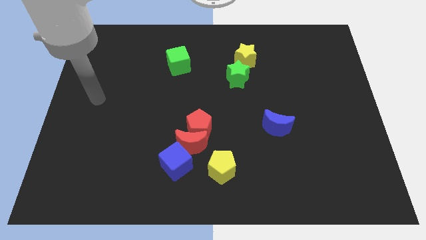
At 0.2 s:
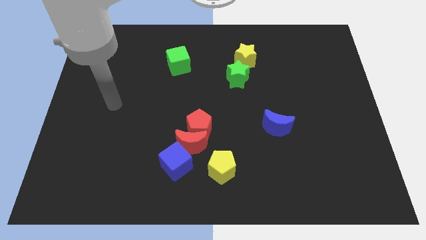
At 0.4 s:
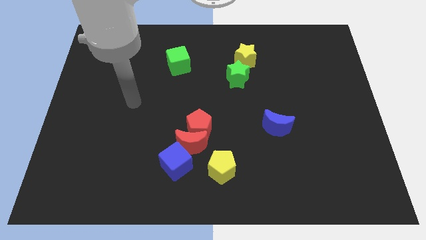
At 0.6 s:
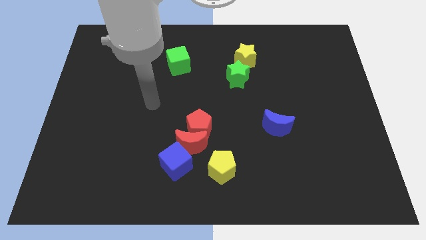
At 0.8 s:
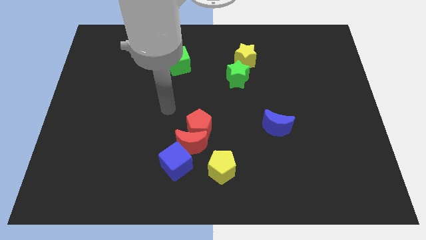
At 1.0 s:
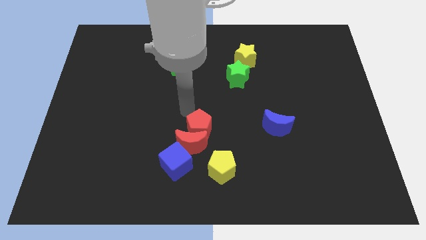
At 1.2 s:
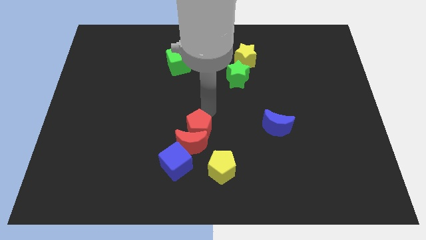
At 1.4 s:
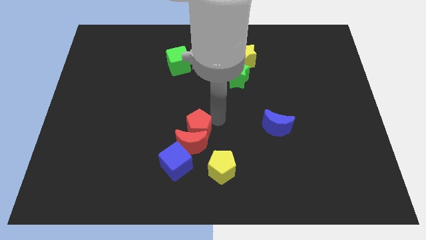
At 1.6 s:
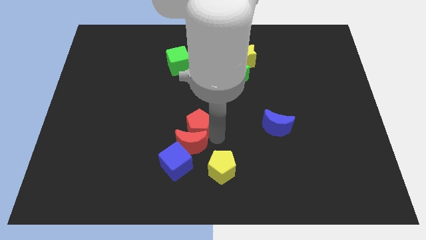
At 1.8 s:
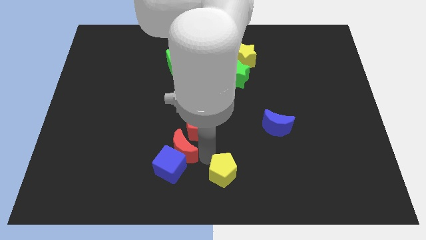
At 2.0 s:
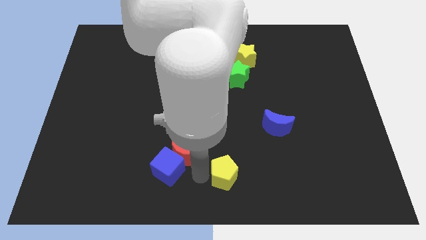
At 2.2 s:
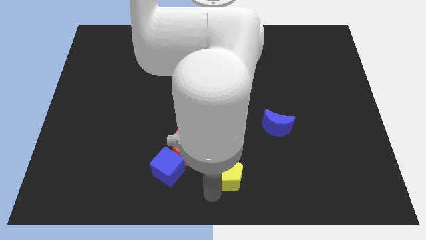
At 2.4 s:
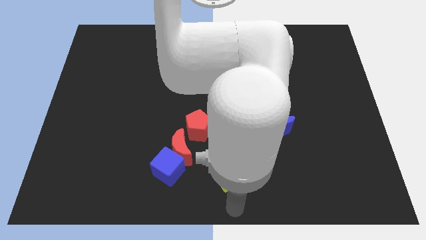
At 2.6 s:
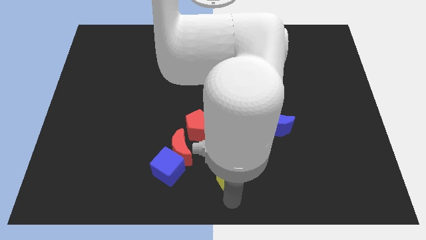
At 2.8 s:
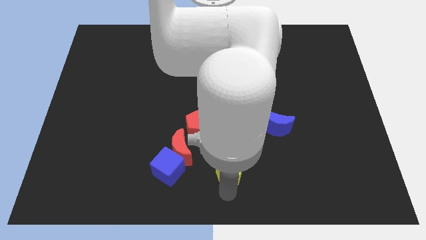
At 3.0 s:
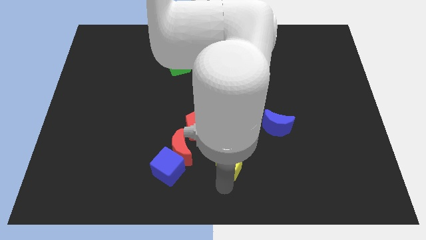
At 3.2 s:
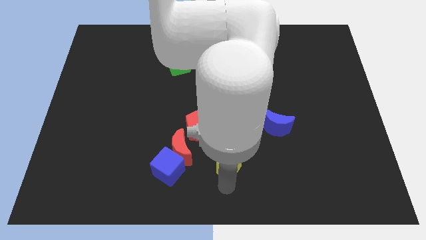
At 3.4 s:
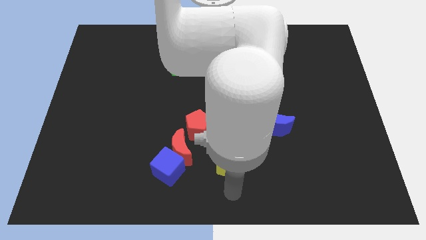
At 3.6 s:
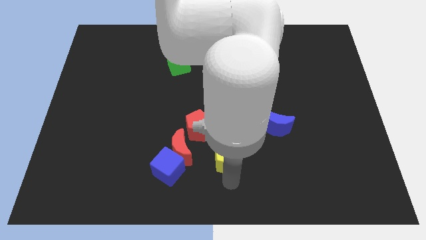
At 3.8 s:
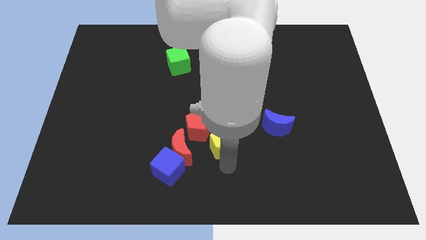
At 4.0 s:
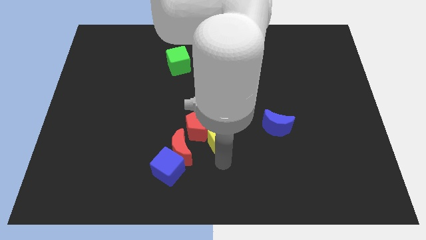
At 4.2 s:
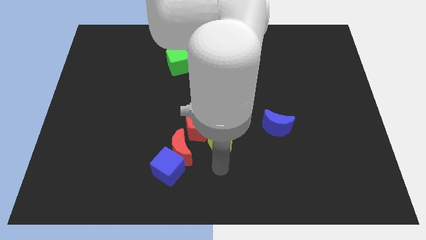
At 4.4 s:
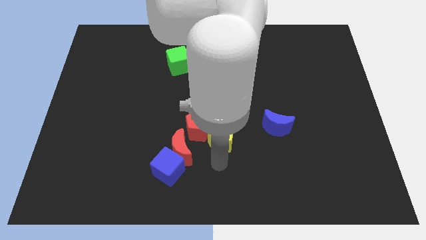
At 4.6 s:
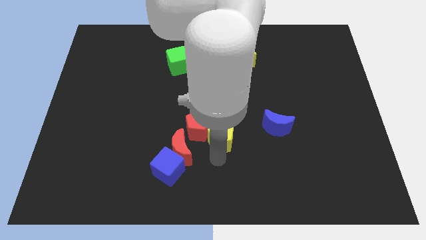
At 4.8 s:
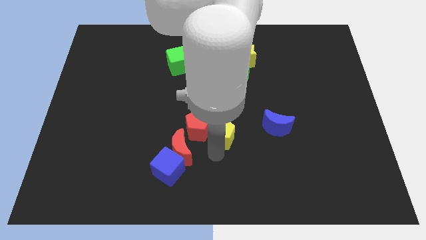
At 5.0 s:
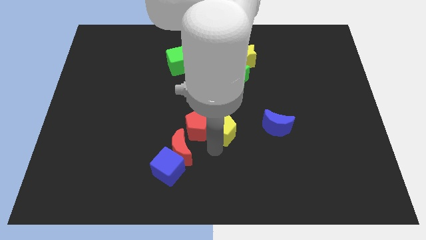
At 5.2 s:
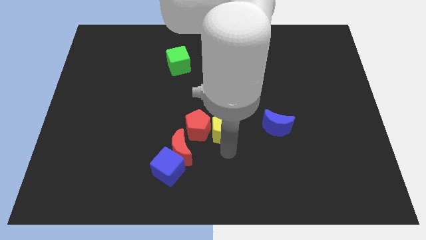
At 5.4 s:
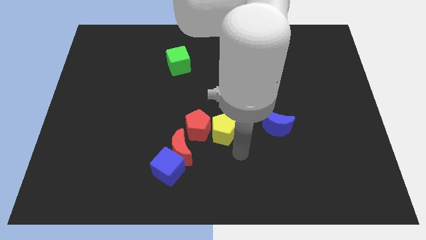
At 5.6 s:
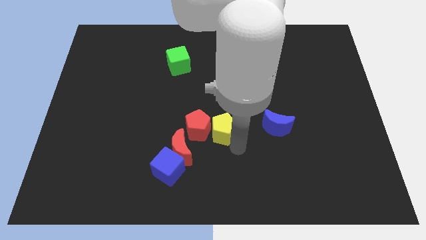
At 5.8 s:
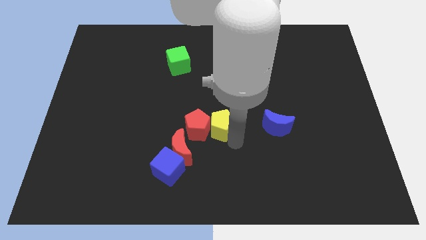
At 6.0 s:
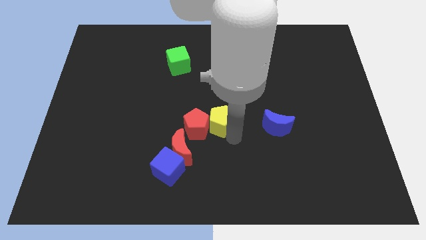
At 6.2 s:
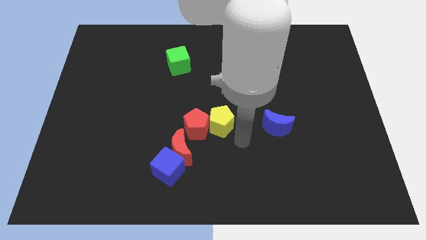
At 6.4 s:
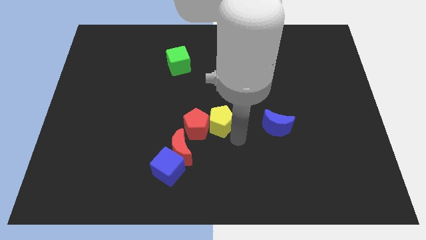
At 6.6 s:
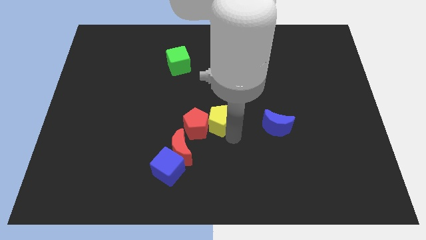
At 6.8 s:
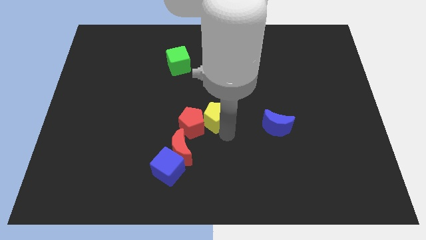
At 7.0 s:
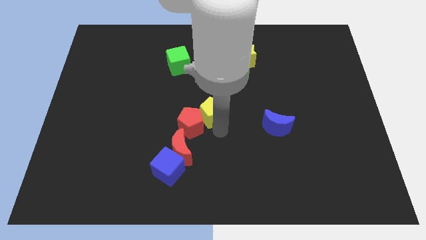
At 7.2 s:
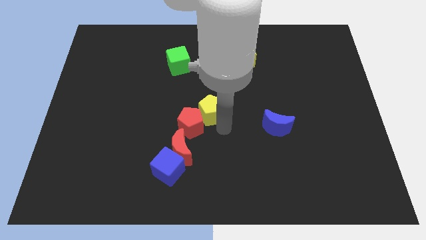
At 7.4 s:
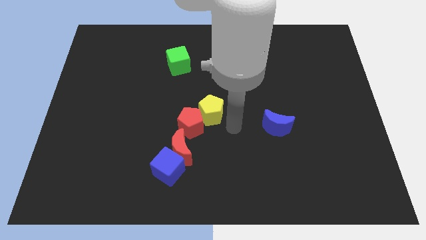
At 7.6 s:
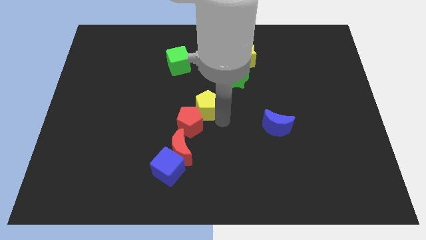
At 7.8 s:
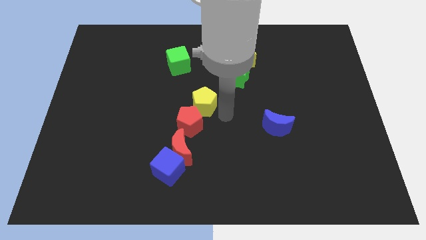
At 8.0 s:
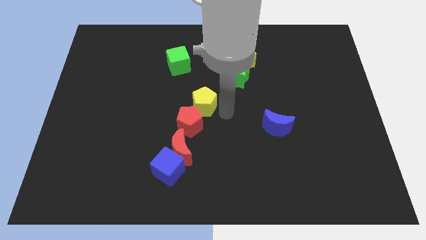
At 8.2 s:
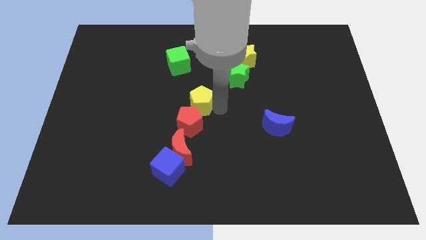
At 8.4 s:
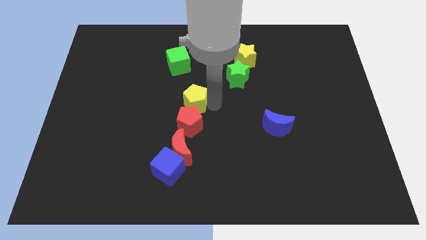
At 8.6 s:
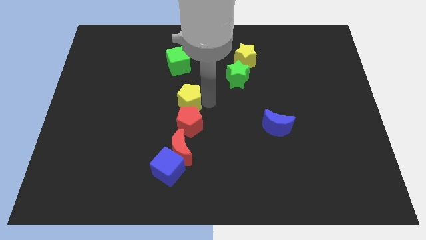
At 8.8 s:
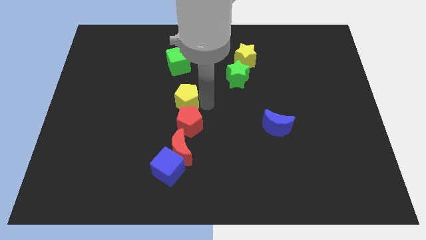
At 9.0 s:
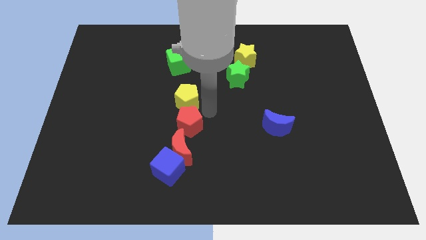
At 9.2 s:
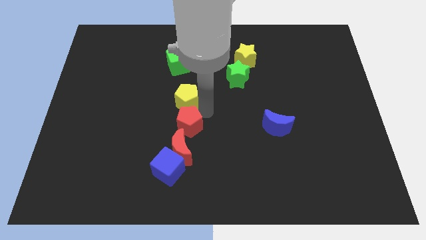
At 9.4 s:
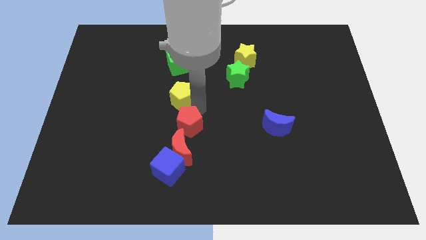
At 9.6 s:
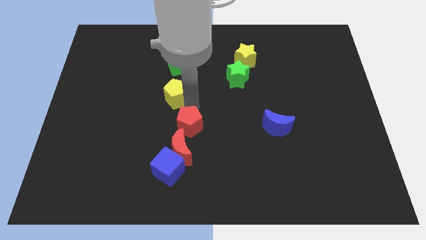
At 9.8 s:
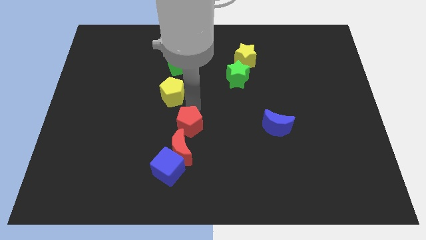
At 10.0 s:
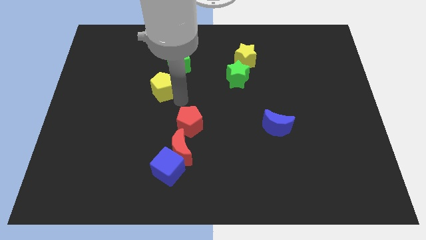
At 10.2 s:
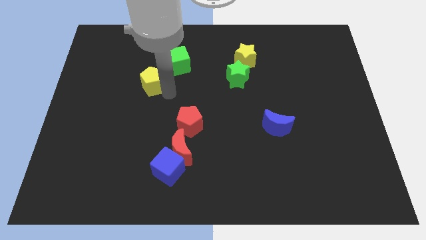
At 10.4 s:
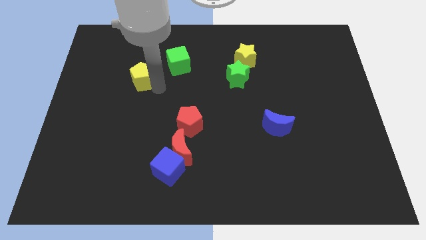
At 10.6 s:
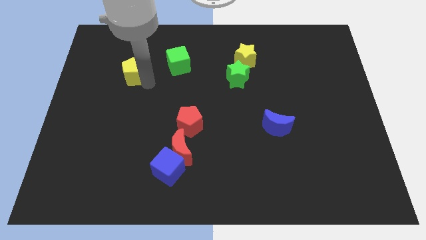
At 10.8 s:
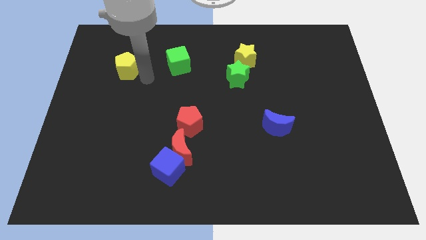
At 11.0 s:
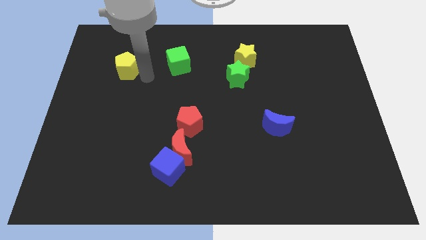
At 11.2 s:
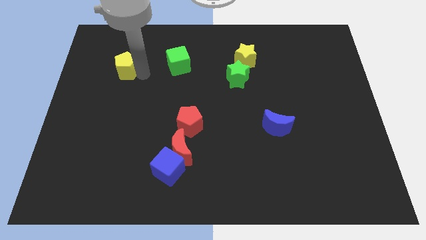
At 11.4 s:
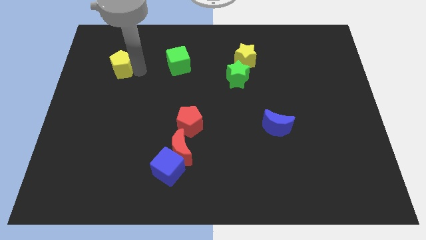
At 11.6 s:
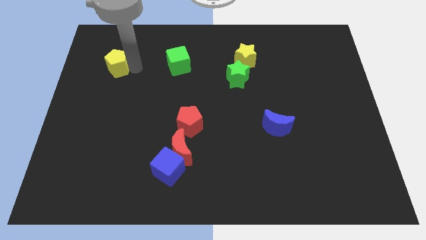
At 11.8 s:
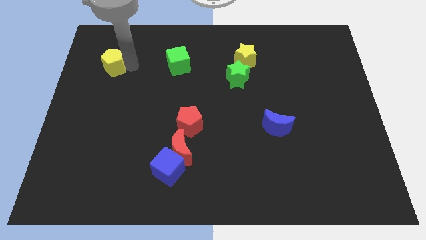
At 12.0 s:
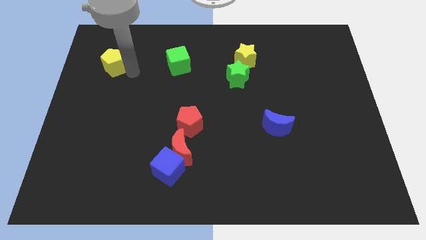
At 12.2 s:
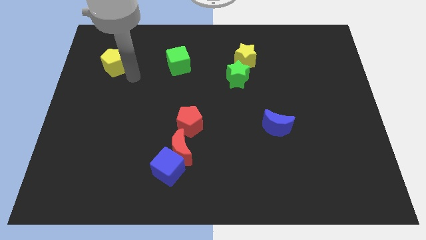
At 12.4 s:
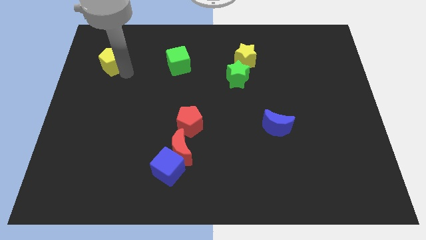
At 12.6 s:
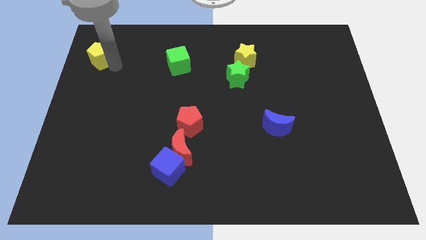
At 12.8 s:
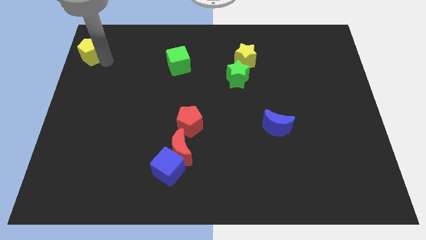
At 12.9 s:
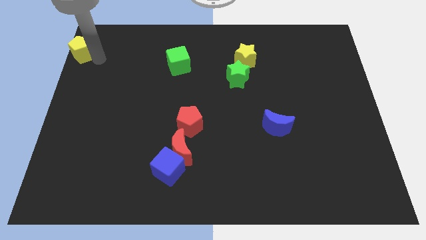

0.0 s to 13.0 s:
push the yellow pentagon to the top left

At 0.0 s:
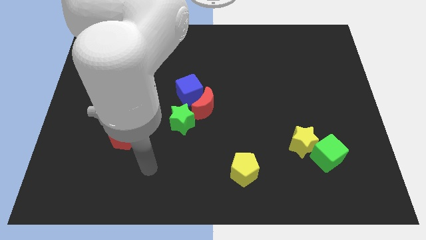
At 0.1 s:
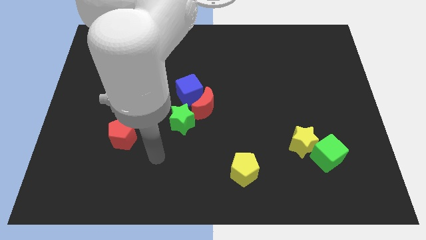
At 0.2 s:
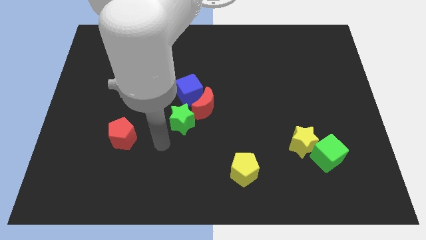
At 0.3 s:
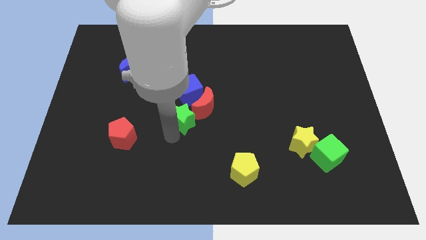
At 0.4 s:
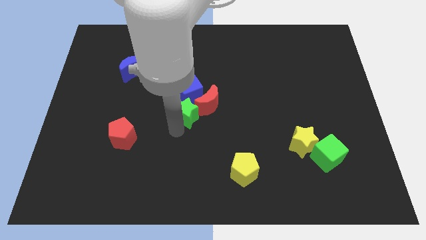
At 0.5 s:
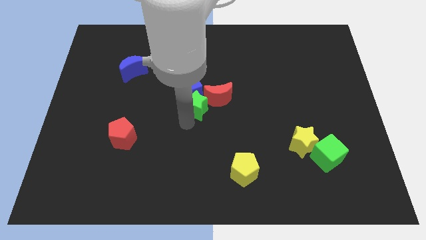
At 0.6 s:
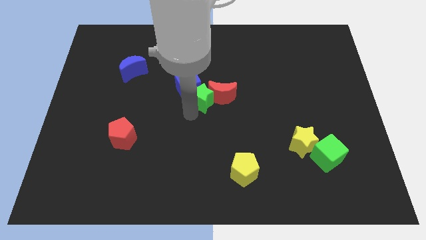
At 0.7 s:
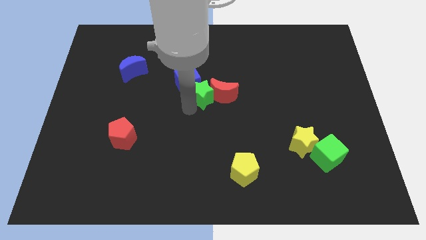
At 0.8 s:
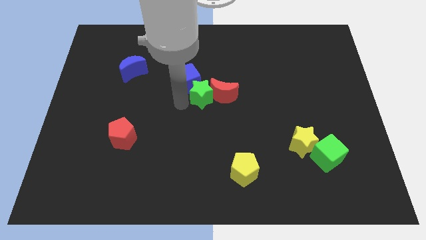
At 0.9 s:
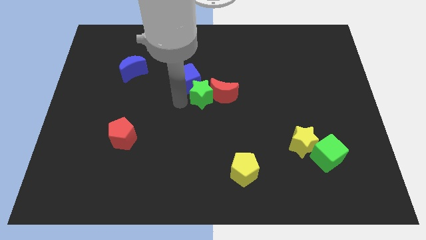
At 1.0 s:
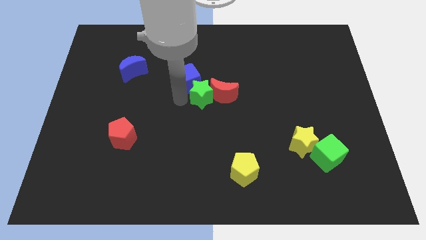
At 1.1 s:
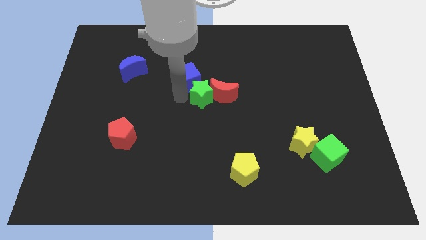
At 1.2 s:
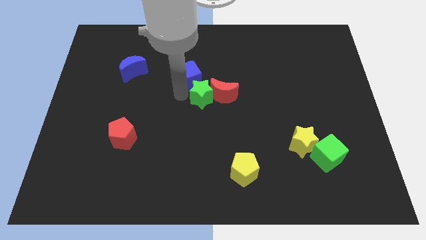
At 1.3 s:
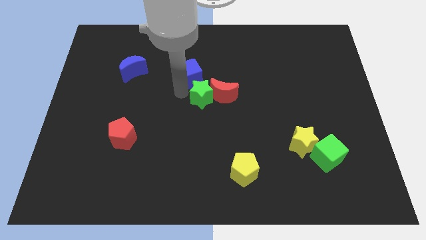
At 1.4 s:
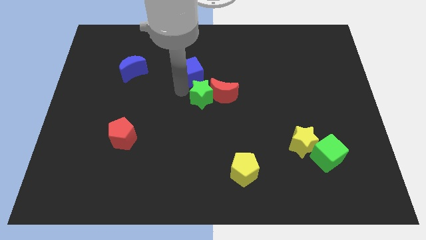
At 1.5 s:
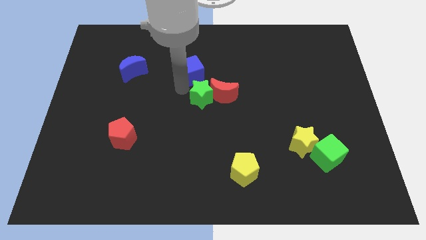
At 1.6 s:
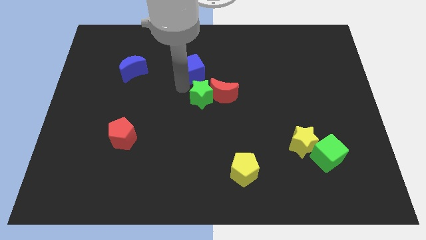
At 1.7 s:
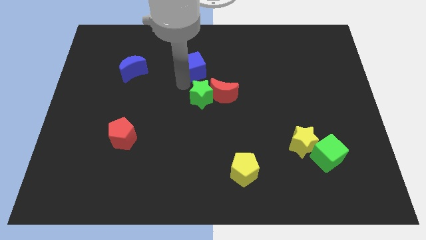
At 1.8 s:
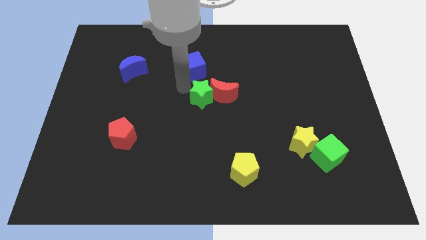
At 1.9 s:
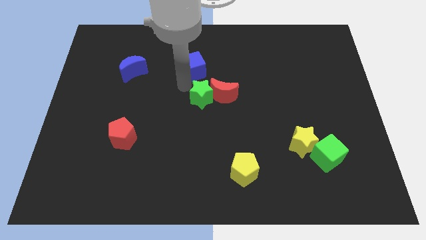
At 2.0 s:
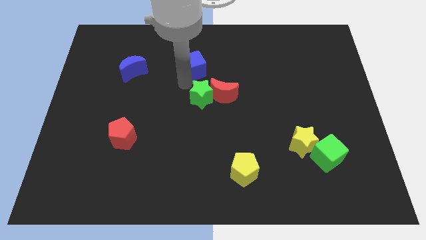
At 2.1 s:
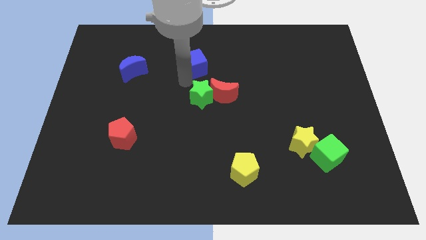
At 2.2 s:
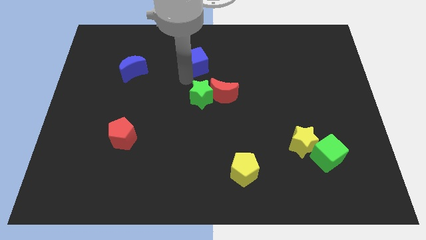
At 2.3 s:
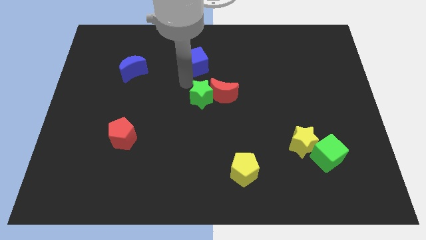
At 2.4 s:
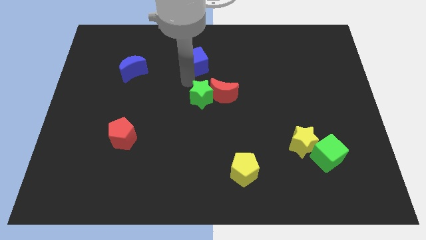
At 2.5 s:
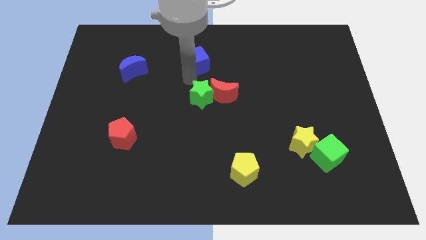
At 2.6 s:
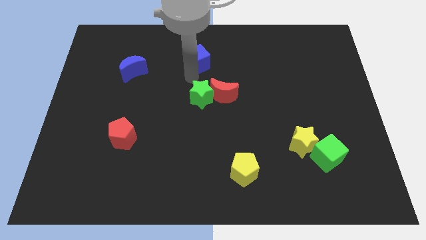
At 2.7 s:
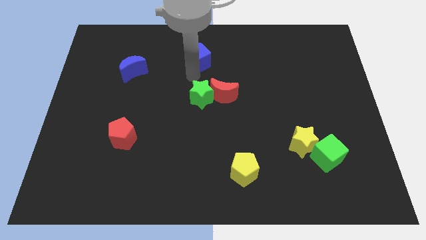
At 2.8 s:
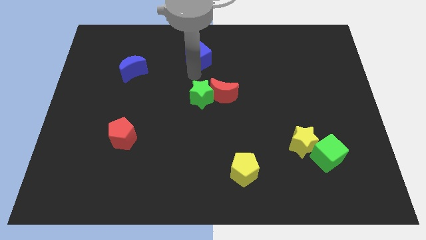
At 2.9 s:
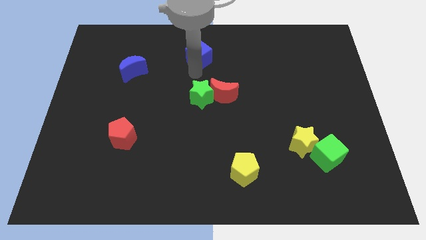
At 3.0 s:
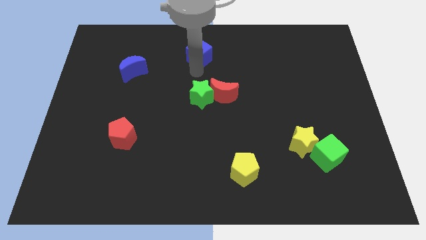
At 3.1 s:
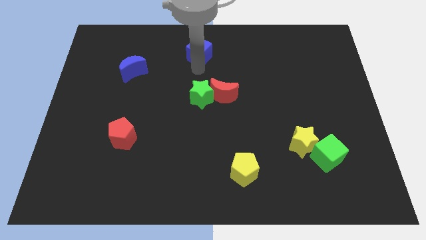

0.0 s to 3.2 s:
slide the blue cube to the towards your base
